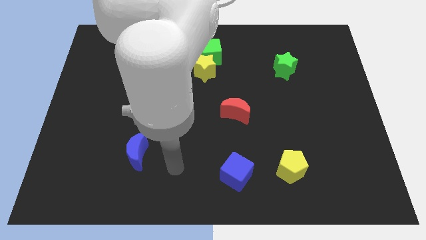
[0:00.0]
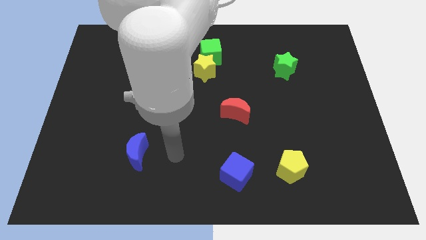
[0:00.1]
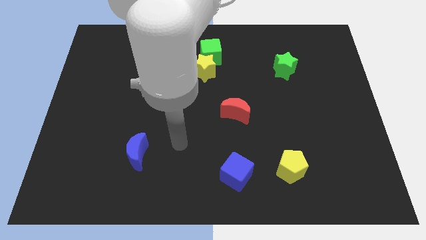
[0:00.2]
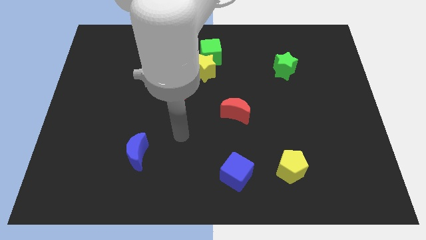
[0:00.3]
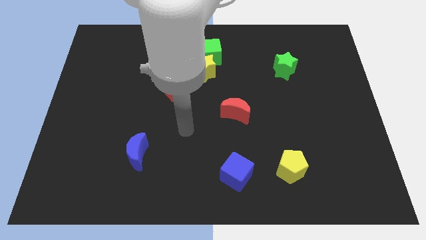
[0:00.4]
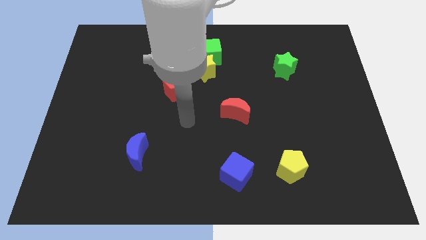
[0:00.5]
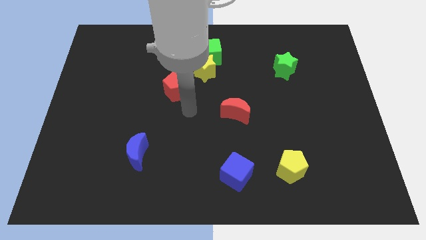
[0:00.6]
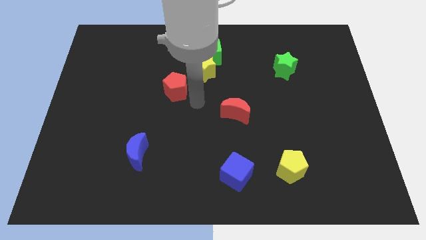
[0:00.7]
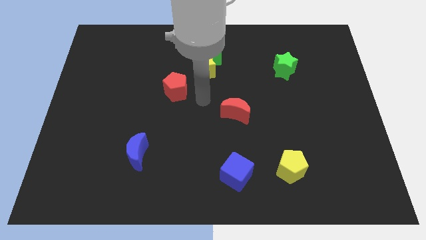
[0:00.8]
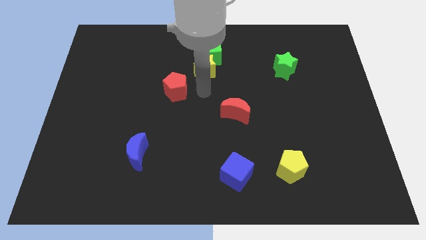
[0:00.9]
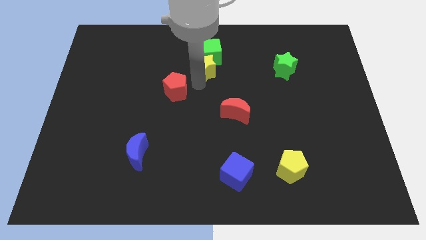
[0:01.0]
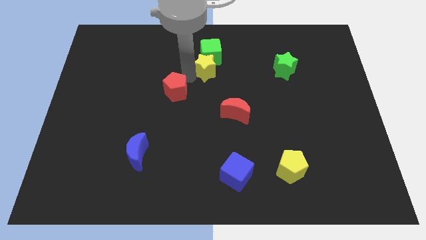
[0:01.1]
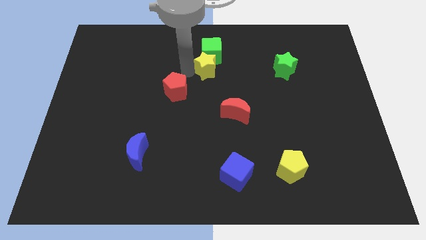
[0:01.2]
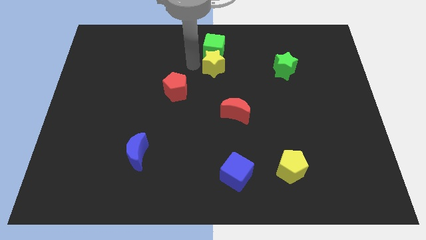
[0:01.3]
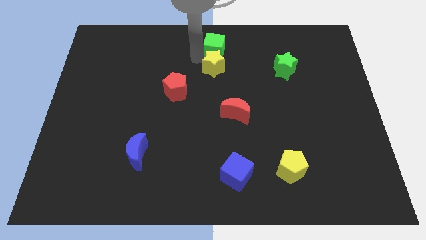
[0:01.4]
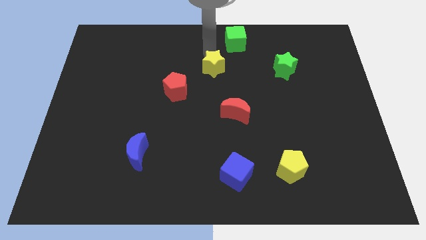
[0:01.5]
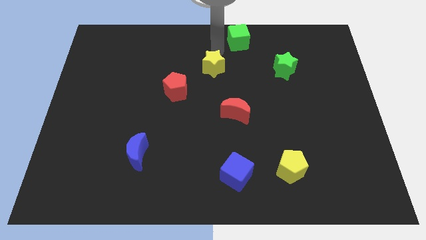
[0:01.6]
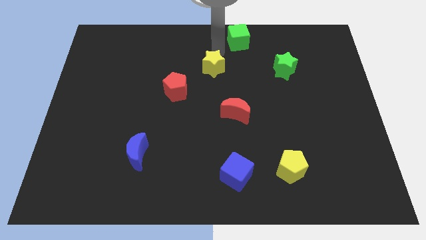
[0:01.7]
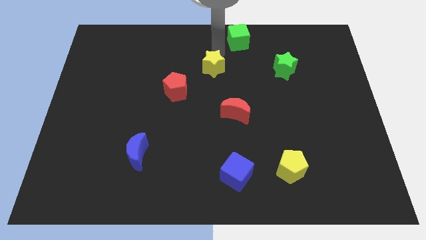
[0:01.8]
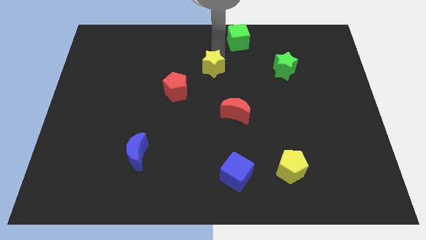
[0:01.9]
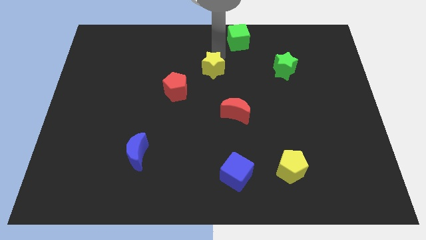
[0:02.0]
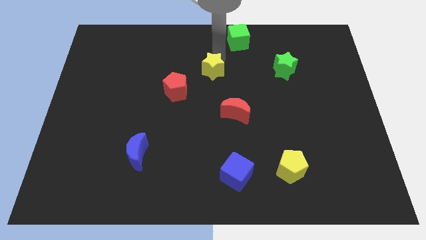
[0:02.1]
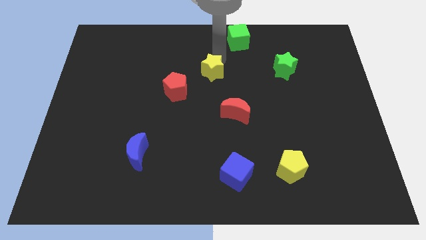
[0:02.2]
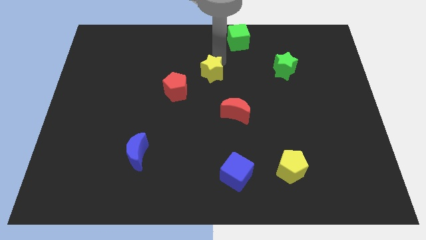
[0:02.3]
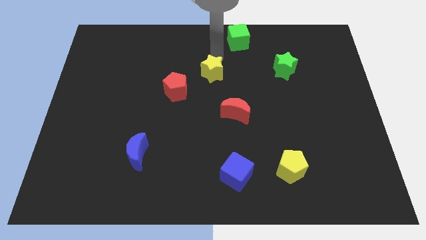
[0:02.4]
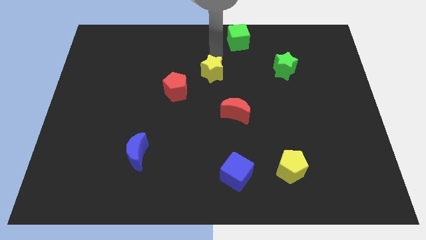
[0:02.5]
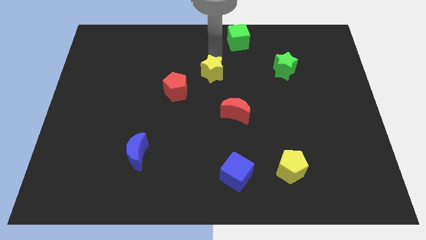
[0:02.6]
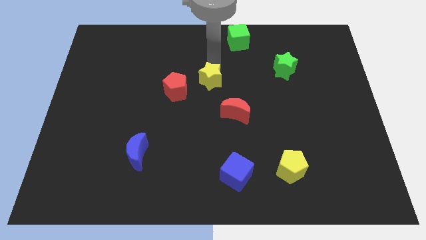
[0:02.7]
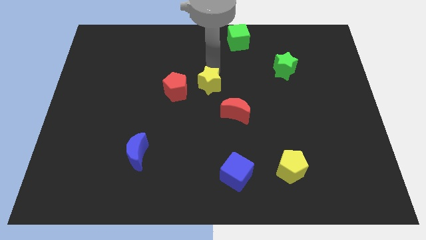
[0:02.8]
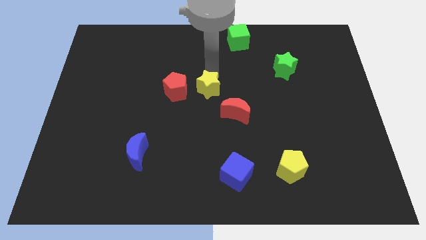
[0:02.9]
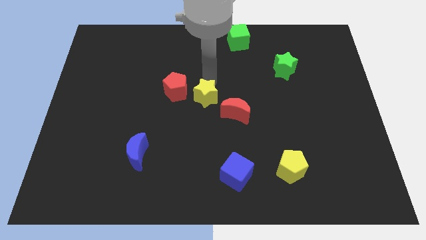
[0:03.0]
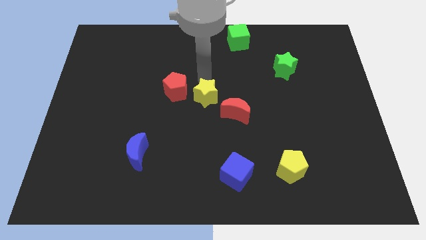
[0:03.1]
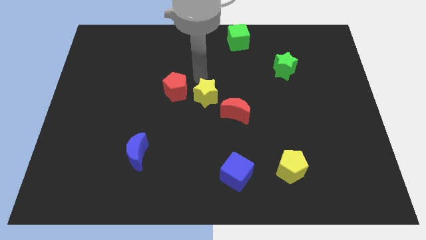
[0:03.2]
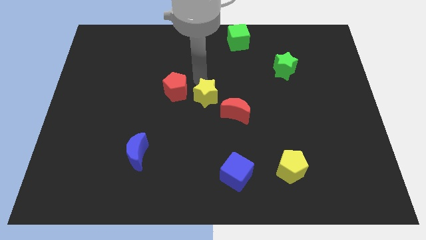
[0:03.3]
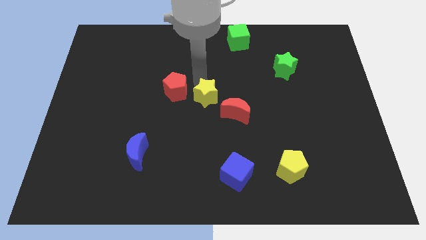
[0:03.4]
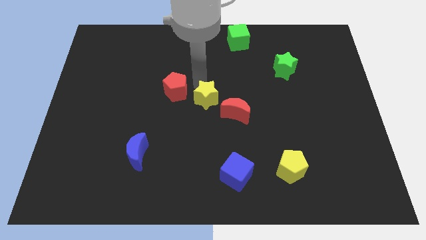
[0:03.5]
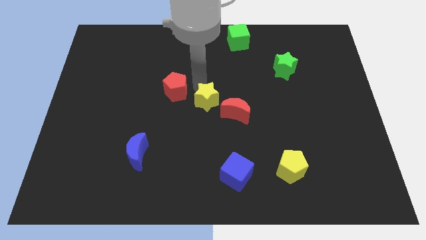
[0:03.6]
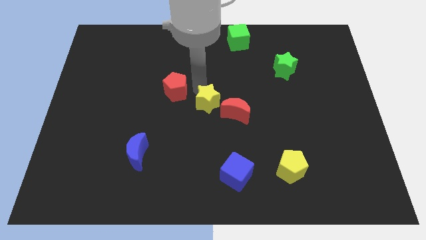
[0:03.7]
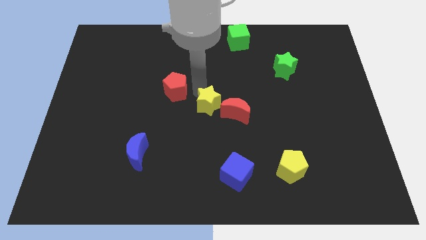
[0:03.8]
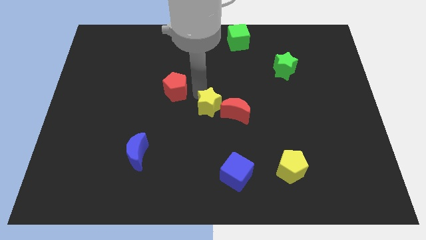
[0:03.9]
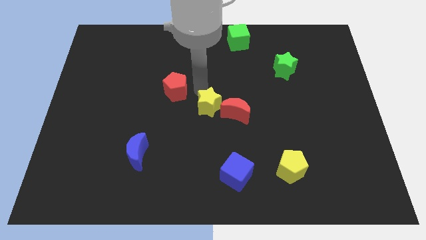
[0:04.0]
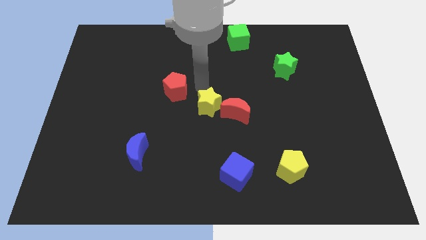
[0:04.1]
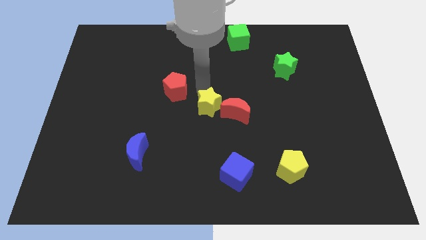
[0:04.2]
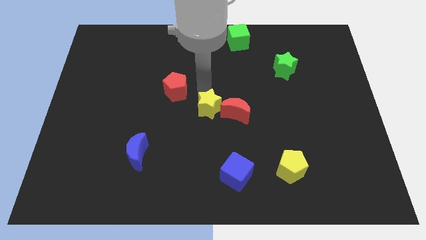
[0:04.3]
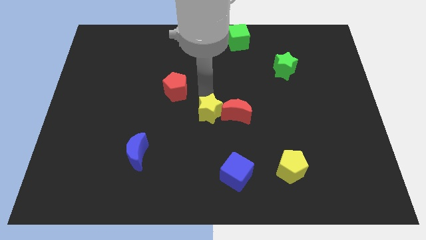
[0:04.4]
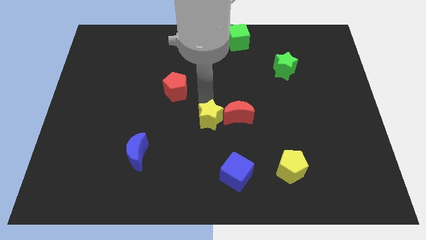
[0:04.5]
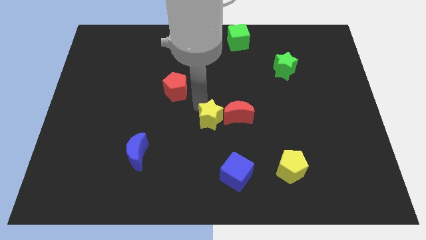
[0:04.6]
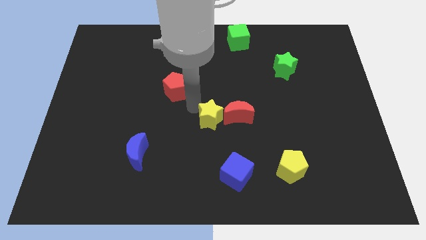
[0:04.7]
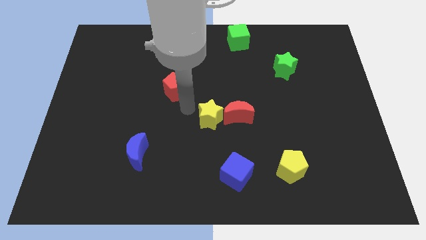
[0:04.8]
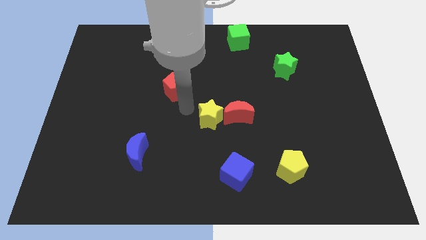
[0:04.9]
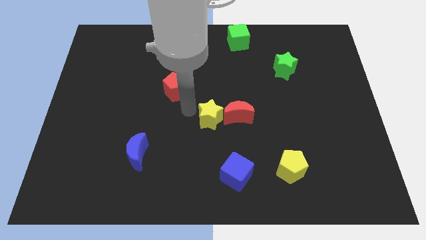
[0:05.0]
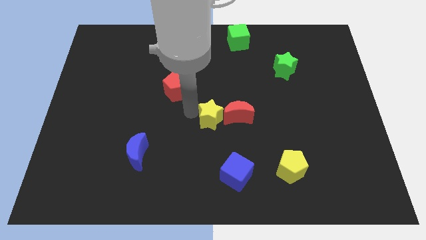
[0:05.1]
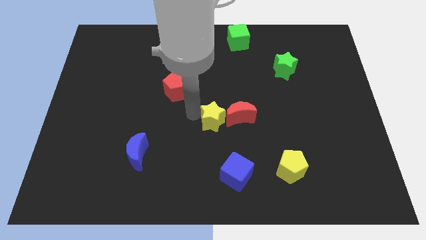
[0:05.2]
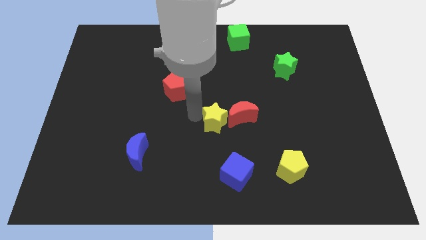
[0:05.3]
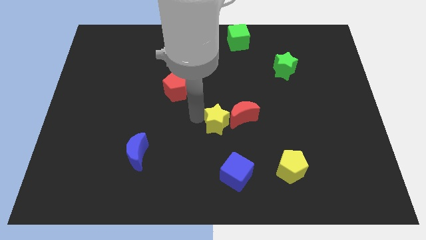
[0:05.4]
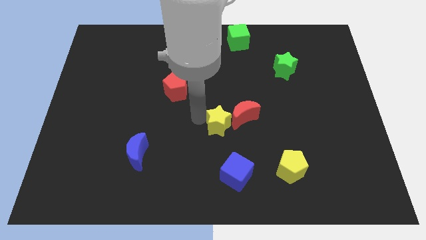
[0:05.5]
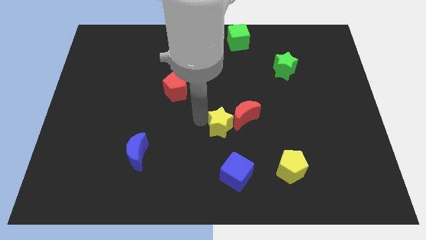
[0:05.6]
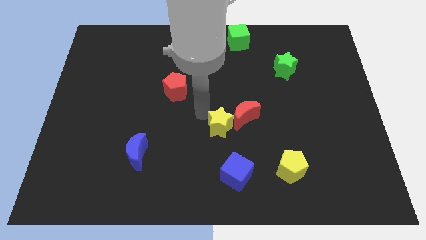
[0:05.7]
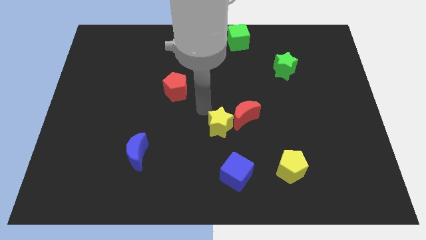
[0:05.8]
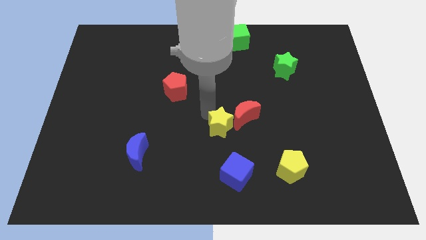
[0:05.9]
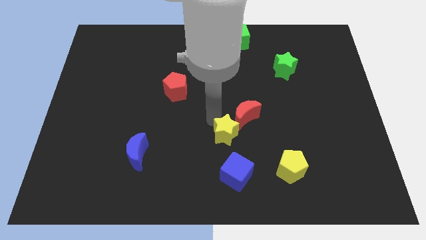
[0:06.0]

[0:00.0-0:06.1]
move the yellow star to the bottom of the red moon

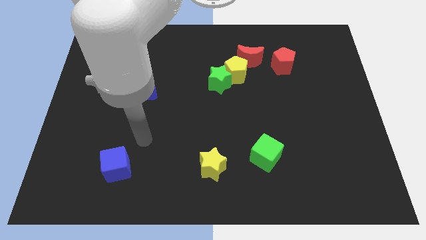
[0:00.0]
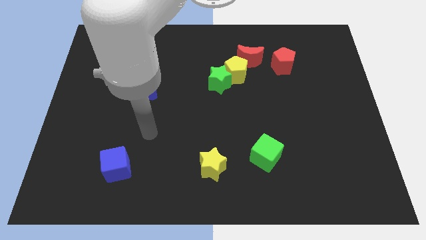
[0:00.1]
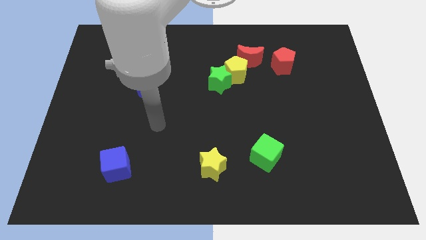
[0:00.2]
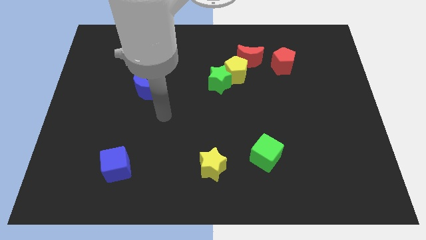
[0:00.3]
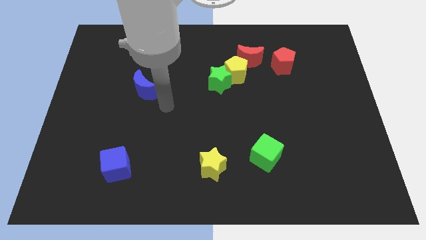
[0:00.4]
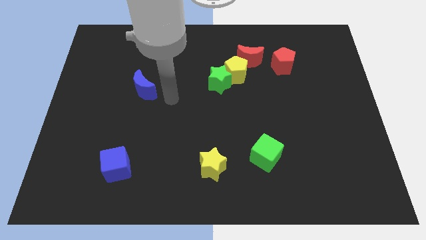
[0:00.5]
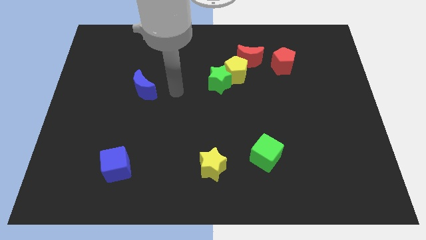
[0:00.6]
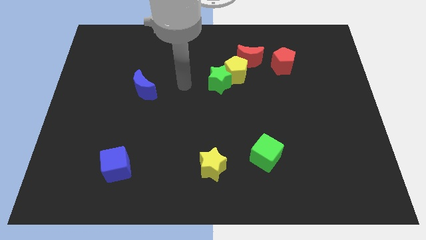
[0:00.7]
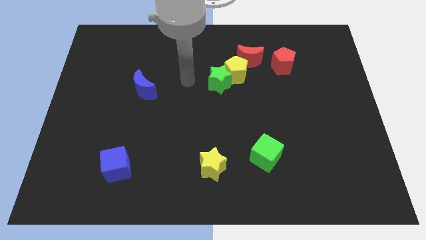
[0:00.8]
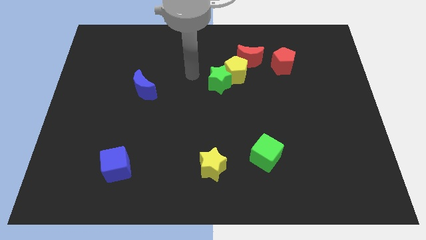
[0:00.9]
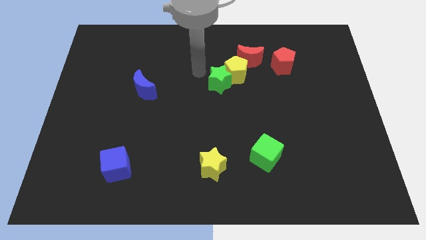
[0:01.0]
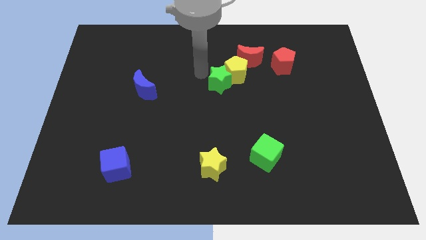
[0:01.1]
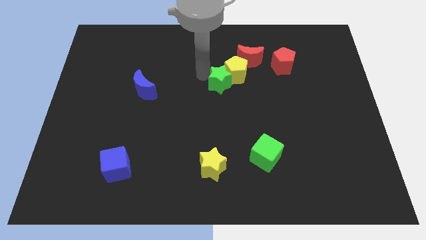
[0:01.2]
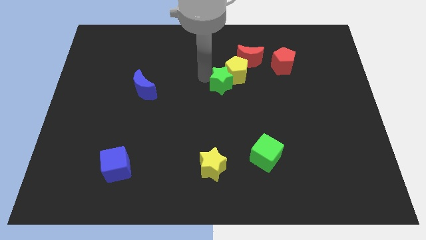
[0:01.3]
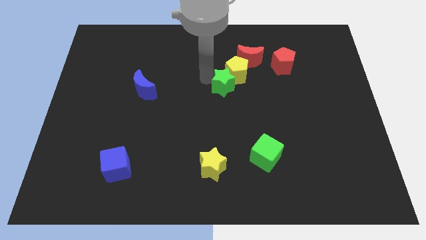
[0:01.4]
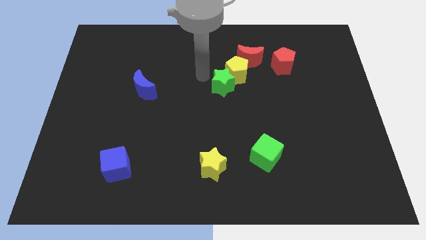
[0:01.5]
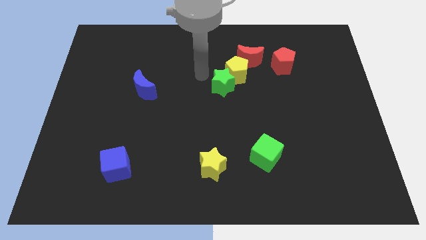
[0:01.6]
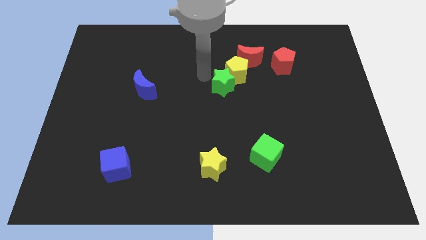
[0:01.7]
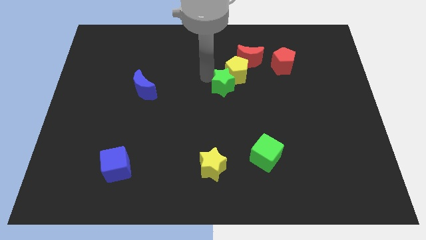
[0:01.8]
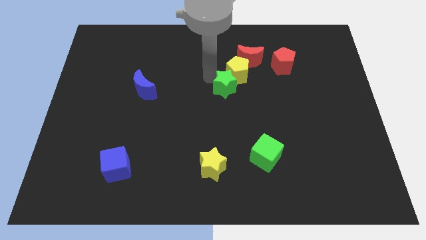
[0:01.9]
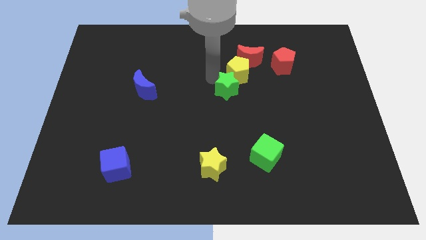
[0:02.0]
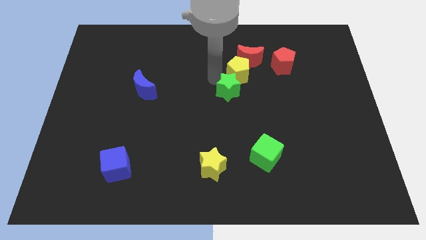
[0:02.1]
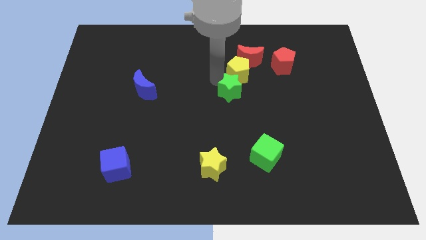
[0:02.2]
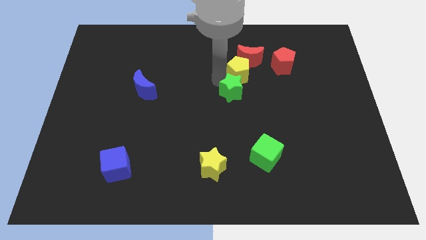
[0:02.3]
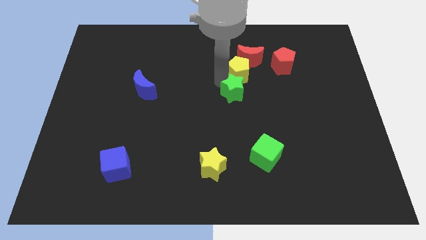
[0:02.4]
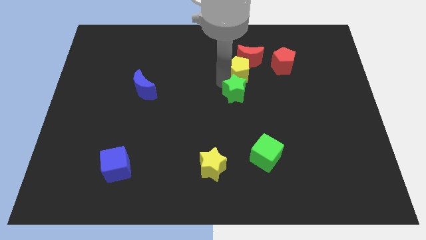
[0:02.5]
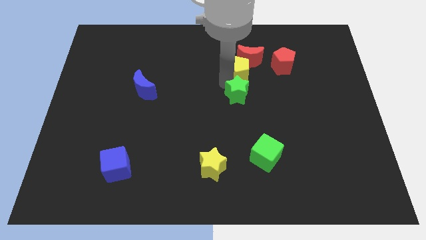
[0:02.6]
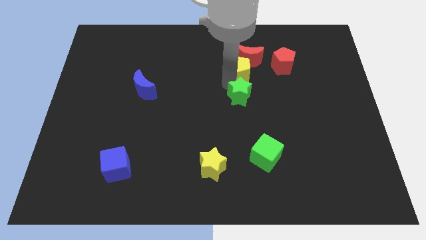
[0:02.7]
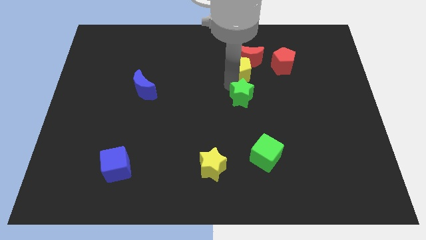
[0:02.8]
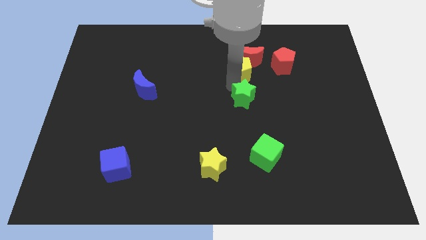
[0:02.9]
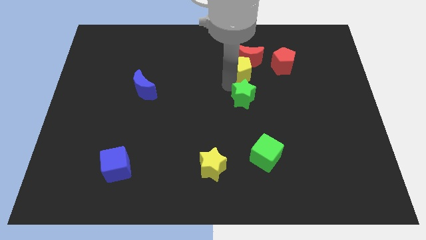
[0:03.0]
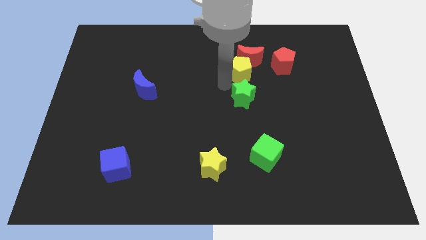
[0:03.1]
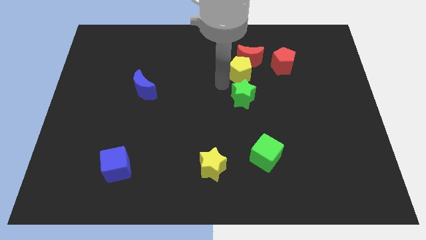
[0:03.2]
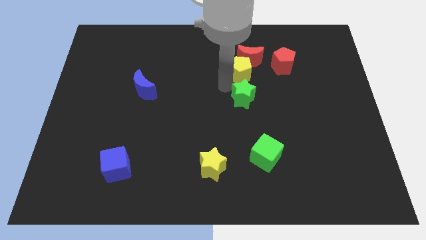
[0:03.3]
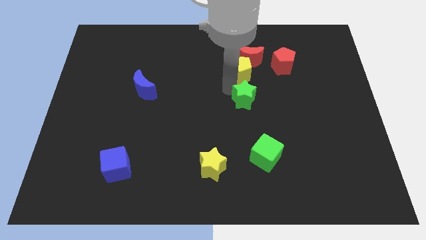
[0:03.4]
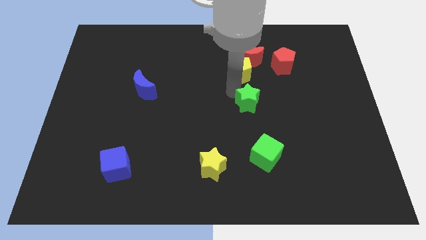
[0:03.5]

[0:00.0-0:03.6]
slide the green star to the top side of the green cube
